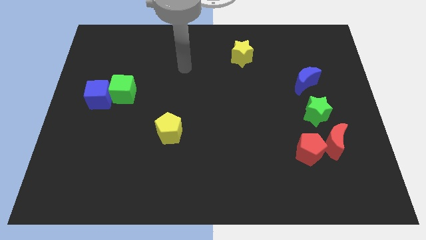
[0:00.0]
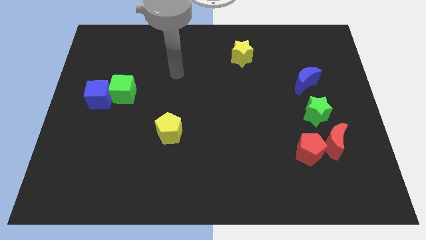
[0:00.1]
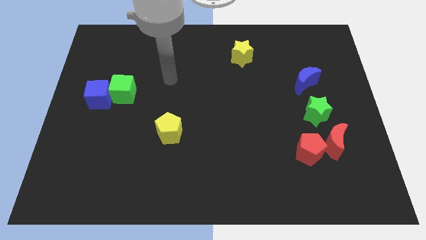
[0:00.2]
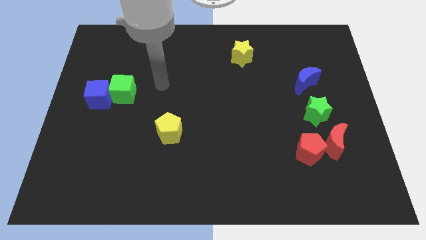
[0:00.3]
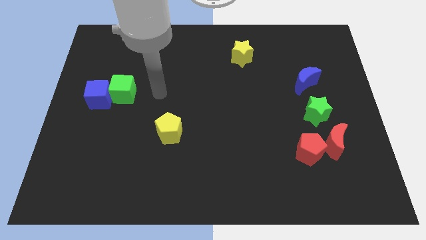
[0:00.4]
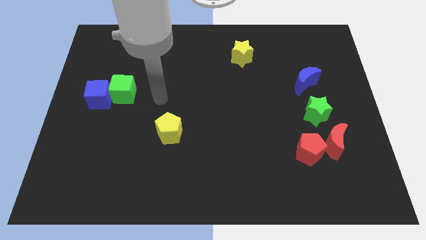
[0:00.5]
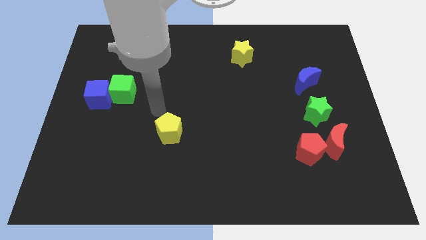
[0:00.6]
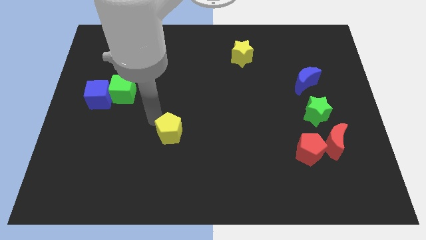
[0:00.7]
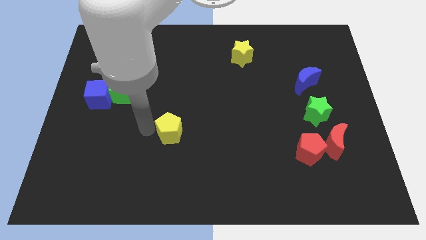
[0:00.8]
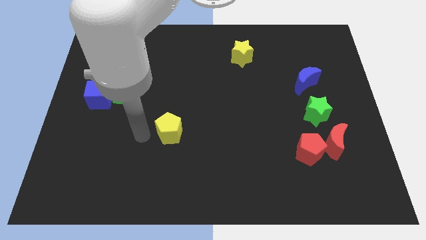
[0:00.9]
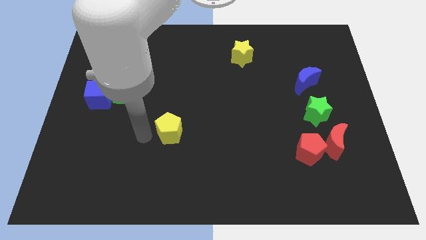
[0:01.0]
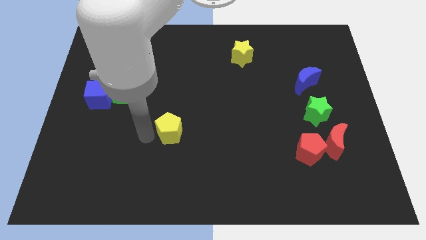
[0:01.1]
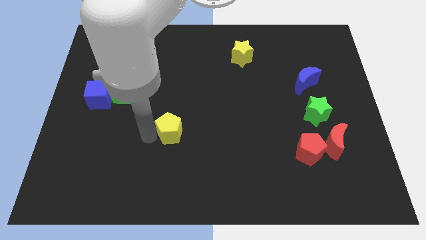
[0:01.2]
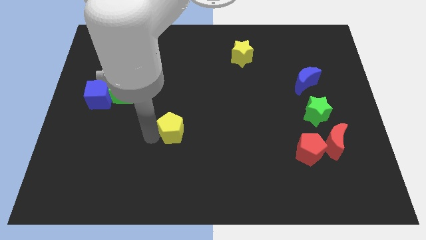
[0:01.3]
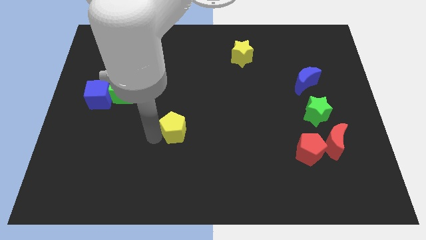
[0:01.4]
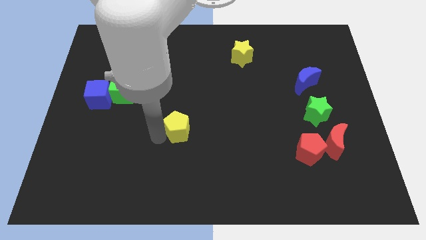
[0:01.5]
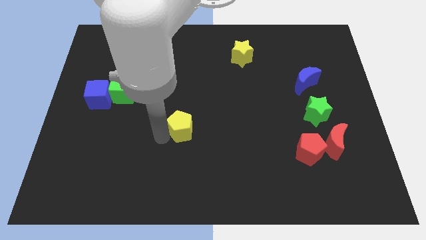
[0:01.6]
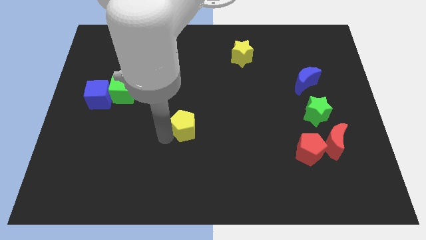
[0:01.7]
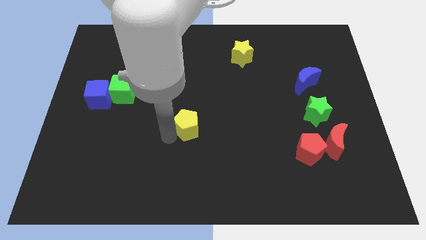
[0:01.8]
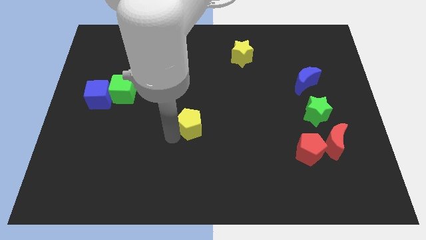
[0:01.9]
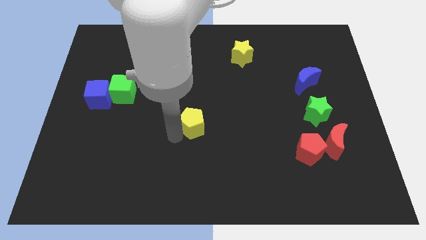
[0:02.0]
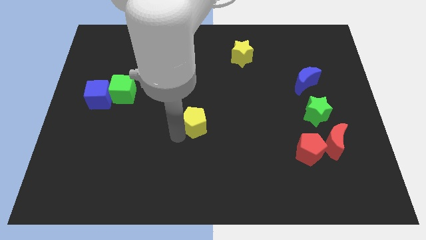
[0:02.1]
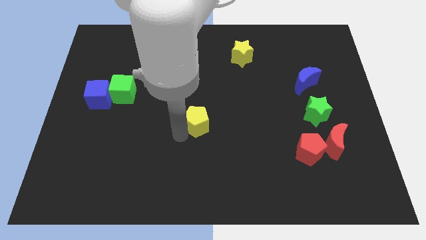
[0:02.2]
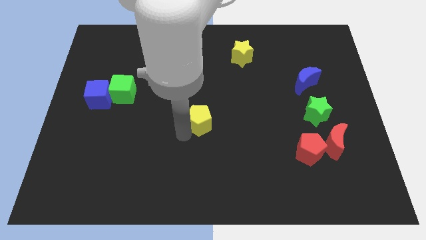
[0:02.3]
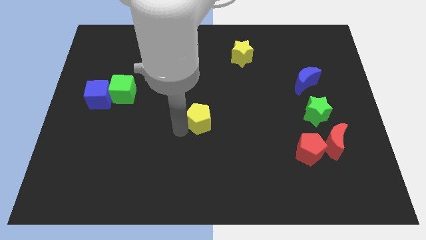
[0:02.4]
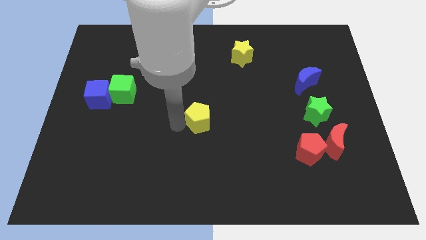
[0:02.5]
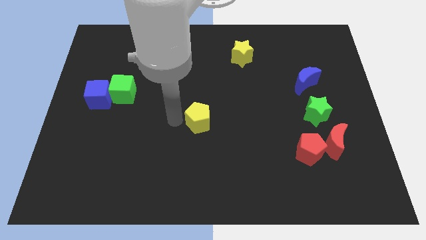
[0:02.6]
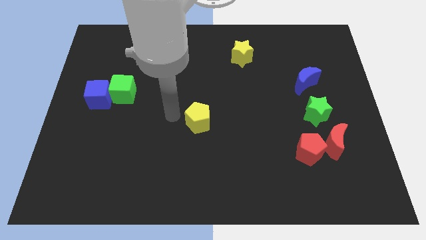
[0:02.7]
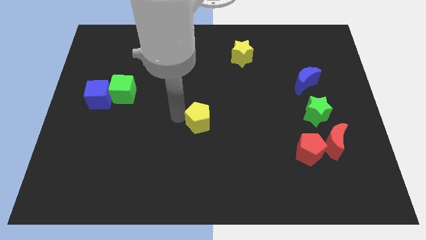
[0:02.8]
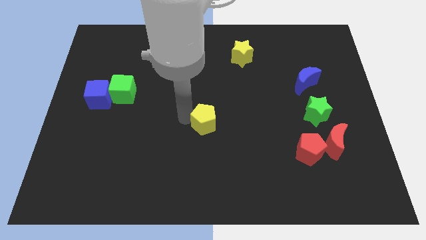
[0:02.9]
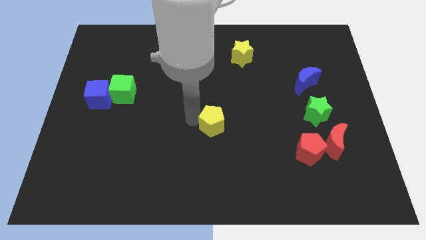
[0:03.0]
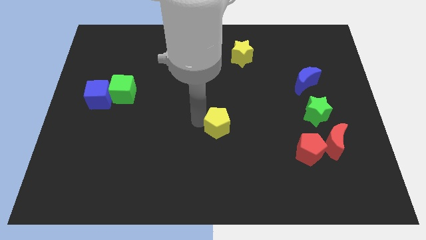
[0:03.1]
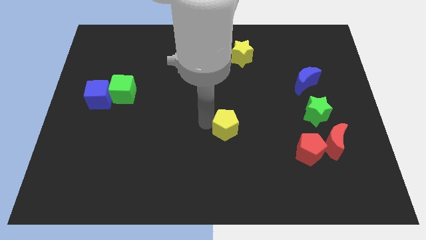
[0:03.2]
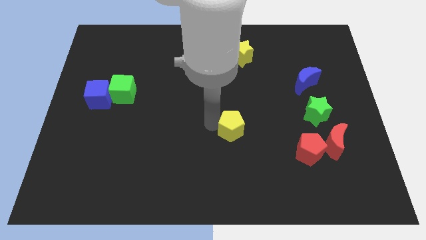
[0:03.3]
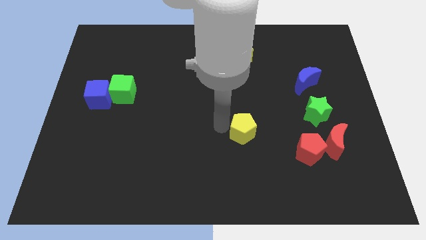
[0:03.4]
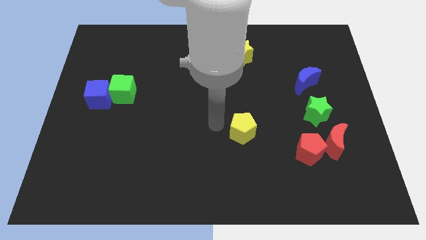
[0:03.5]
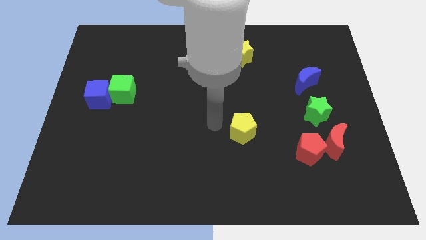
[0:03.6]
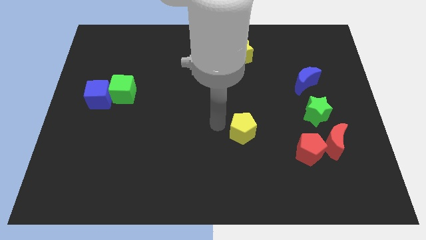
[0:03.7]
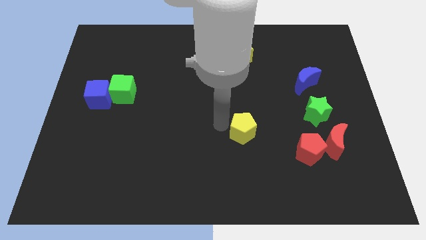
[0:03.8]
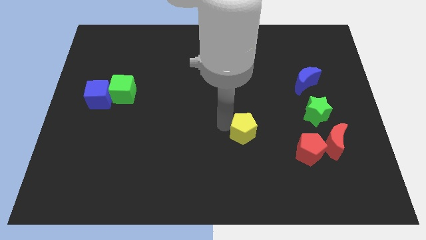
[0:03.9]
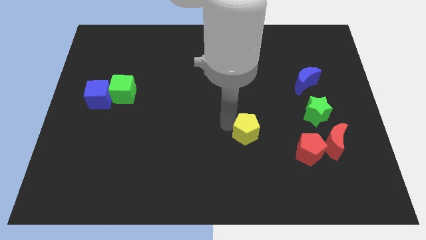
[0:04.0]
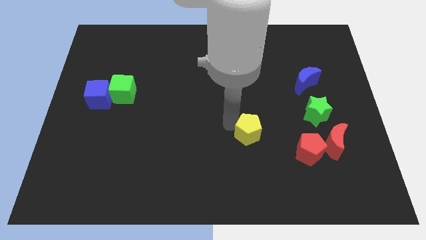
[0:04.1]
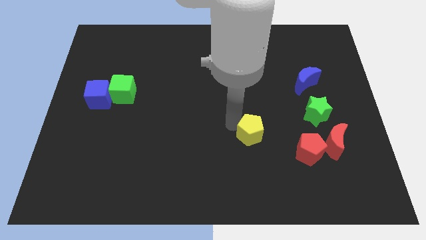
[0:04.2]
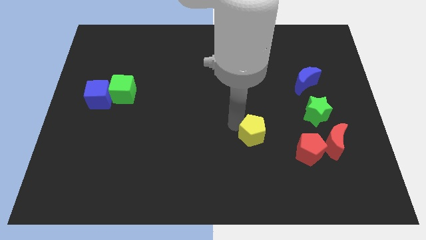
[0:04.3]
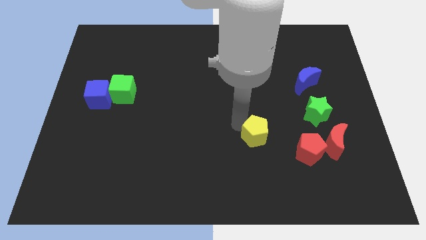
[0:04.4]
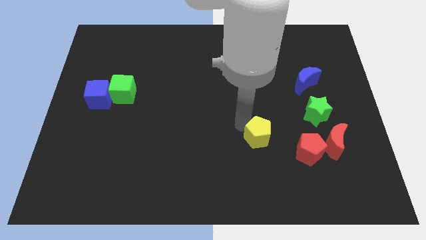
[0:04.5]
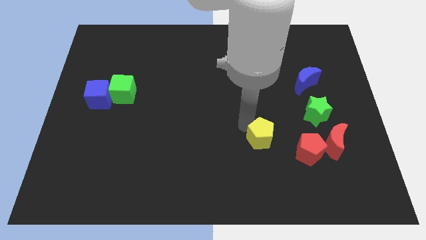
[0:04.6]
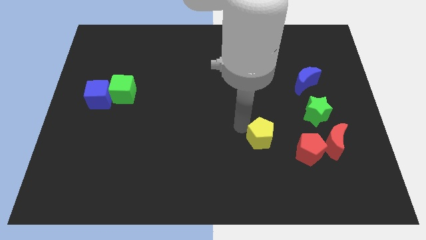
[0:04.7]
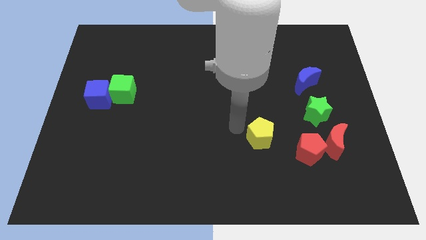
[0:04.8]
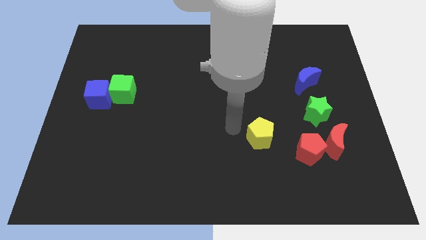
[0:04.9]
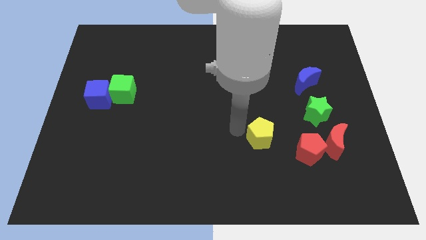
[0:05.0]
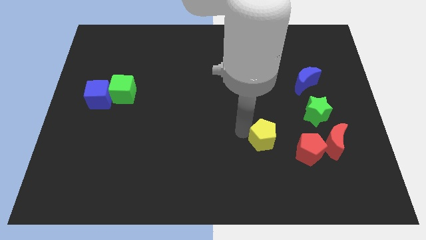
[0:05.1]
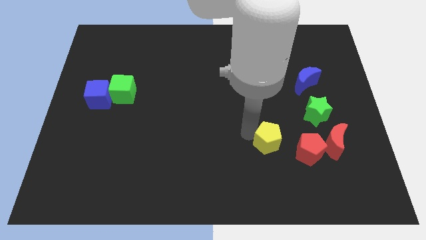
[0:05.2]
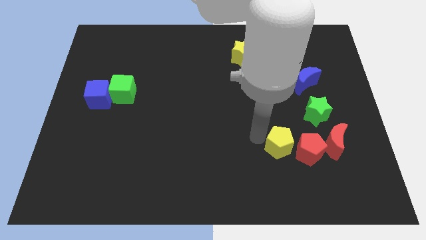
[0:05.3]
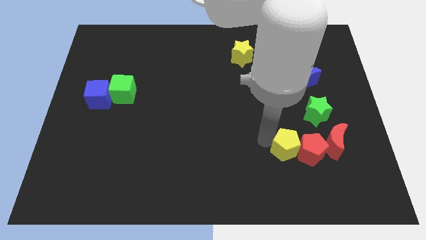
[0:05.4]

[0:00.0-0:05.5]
push the yellow pentagon next to the red pentagon

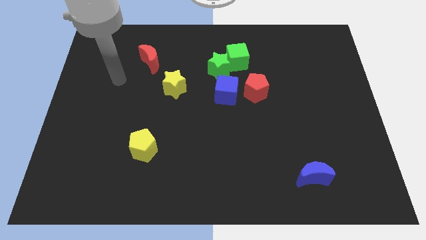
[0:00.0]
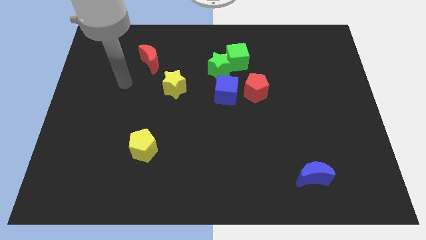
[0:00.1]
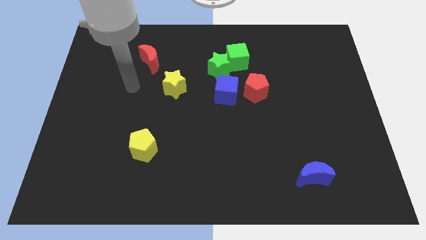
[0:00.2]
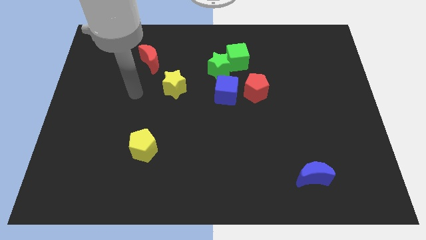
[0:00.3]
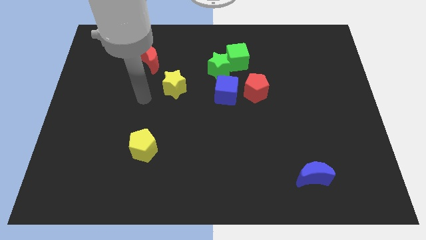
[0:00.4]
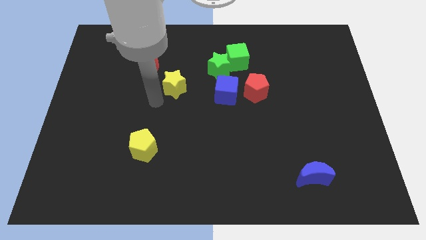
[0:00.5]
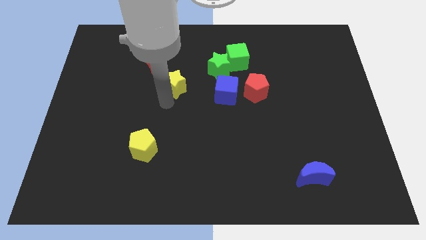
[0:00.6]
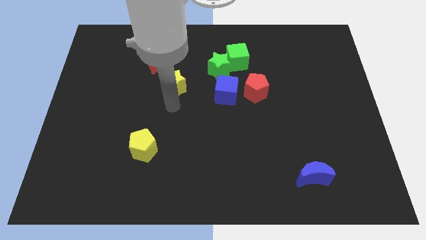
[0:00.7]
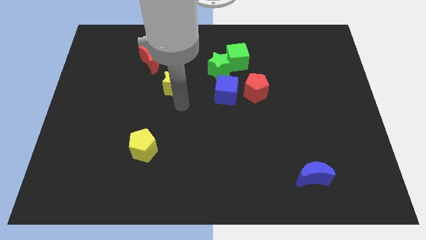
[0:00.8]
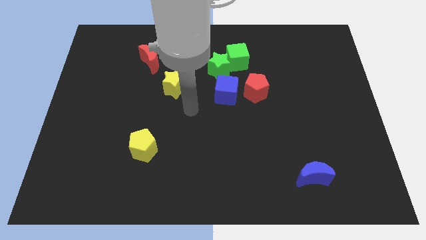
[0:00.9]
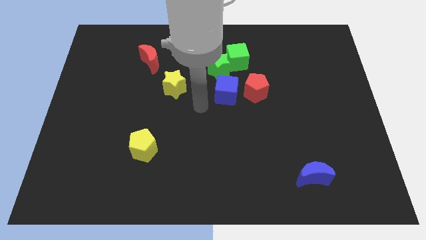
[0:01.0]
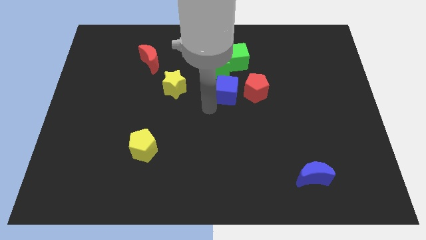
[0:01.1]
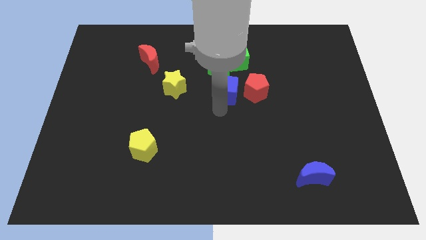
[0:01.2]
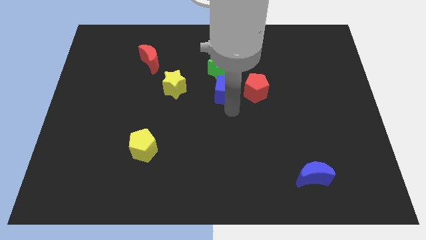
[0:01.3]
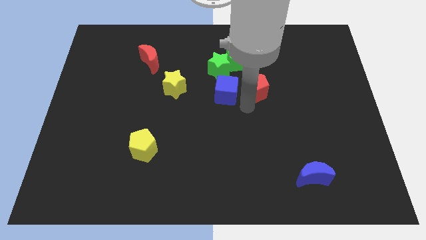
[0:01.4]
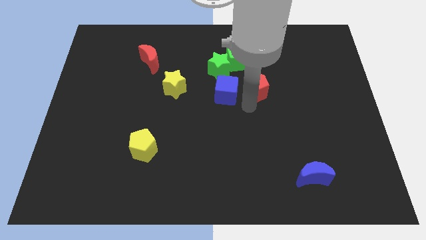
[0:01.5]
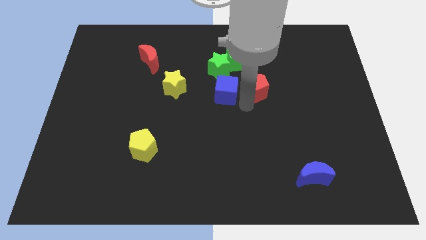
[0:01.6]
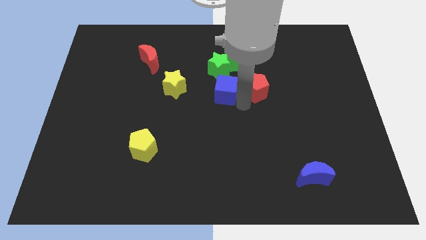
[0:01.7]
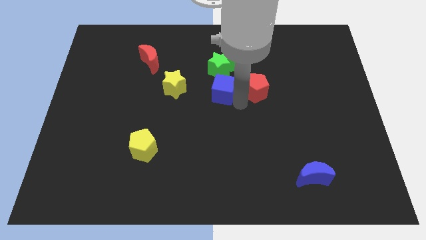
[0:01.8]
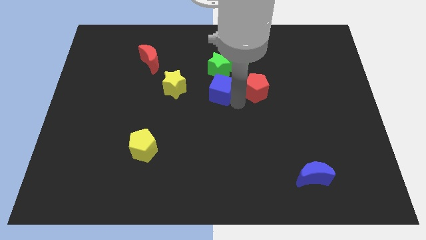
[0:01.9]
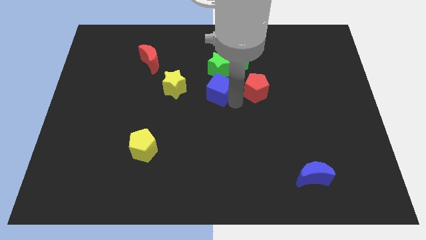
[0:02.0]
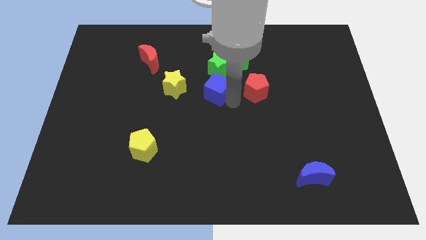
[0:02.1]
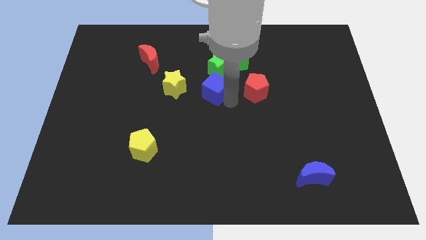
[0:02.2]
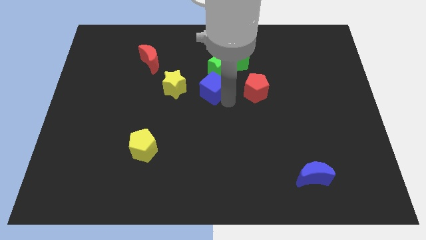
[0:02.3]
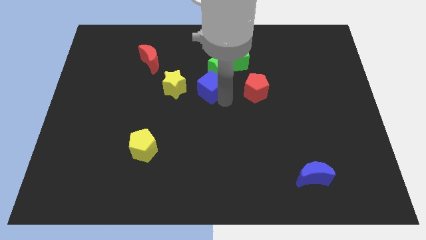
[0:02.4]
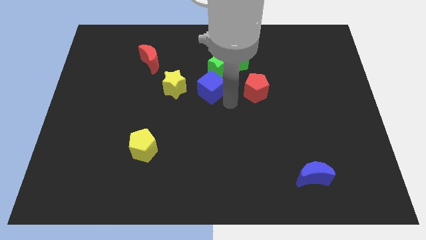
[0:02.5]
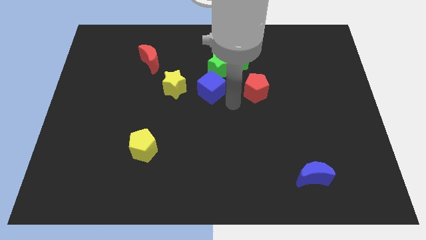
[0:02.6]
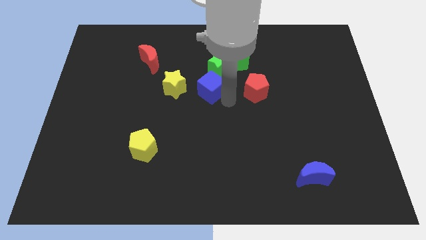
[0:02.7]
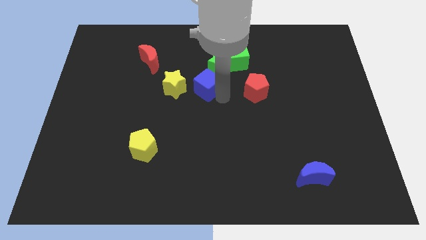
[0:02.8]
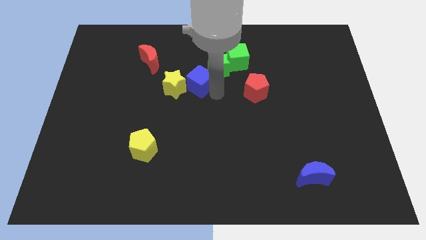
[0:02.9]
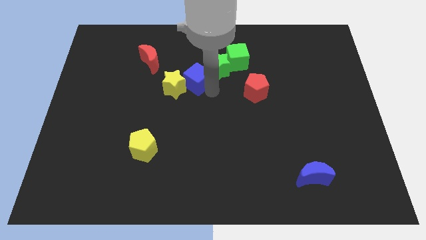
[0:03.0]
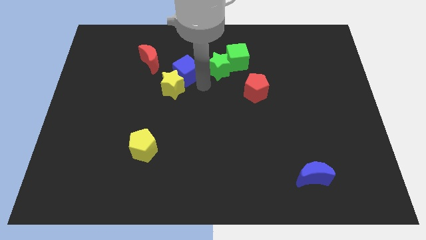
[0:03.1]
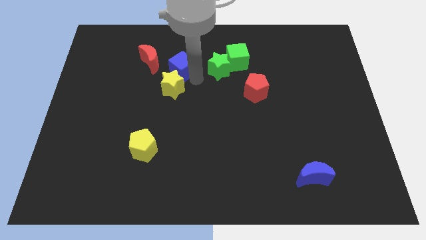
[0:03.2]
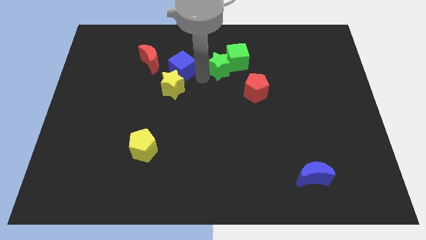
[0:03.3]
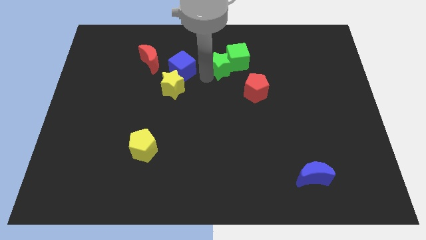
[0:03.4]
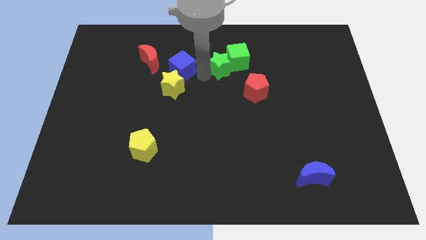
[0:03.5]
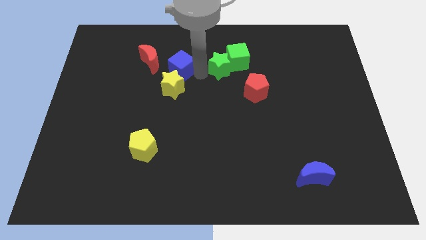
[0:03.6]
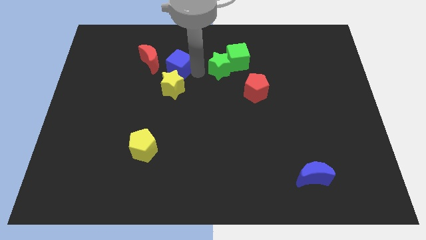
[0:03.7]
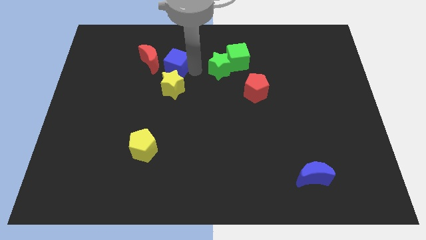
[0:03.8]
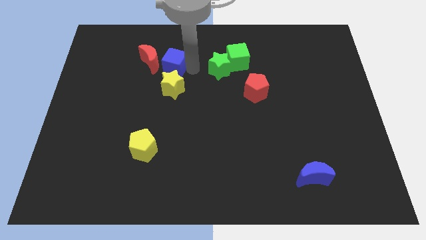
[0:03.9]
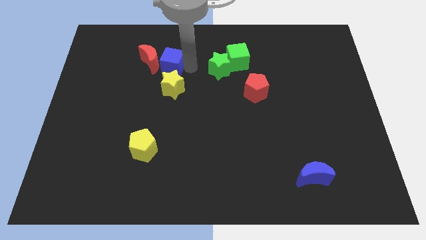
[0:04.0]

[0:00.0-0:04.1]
put the blue cube close to the red moon
